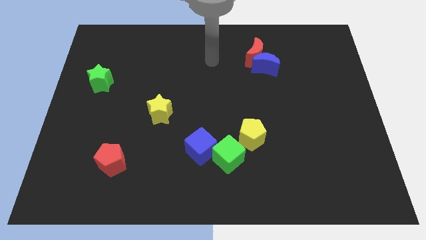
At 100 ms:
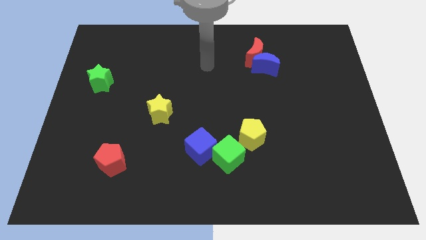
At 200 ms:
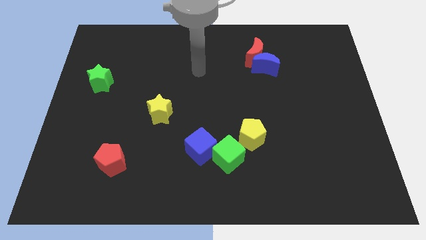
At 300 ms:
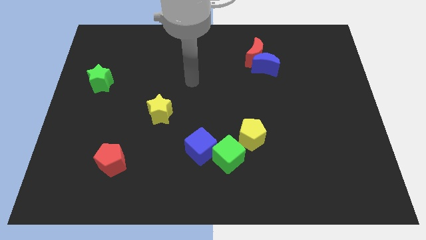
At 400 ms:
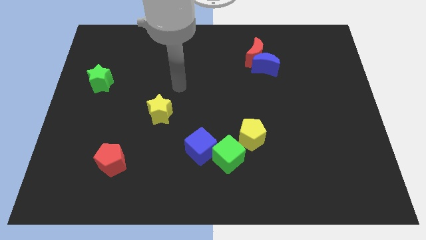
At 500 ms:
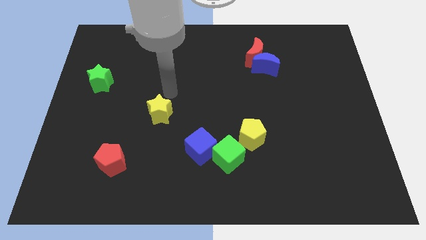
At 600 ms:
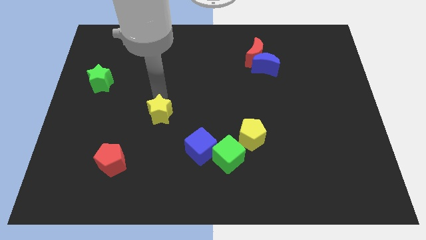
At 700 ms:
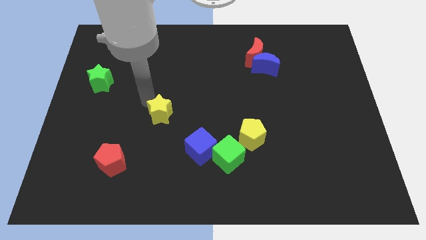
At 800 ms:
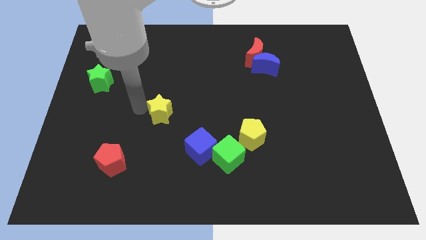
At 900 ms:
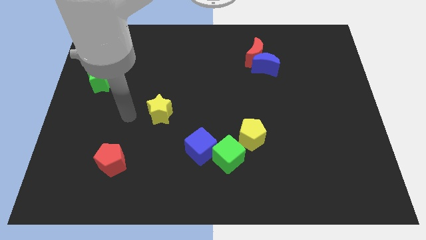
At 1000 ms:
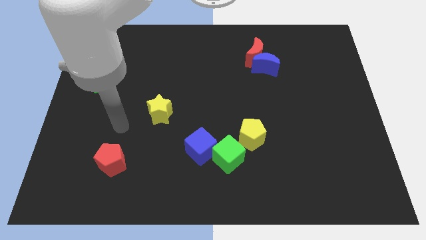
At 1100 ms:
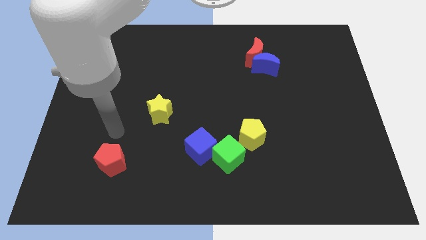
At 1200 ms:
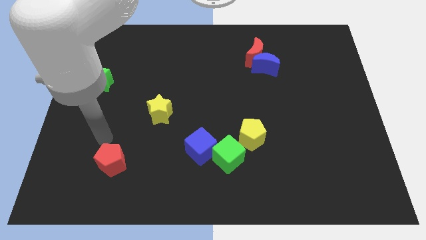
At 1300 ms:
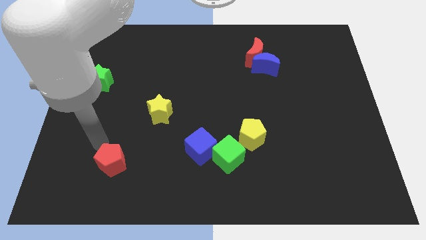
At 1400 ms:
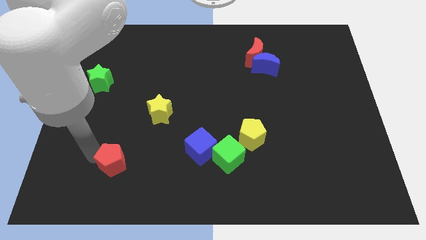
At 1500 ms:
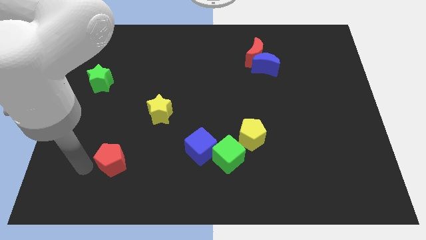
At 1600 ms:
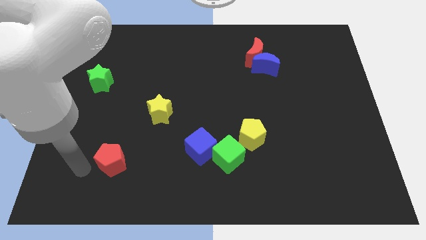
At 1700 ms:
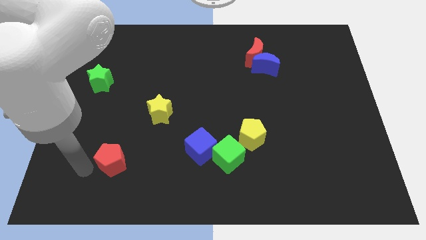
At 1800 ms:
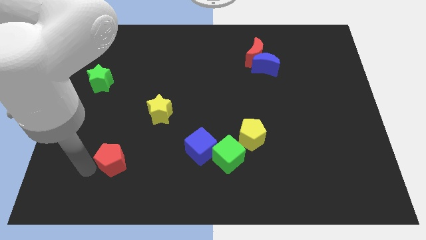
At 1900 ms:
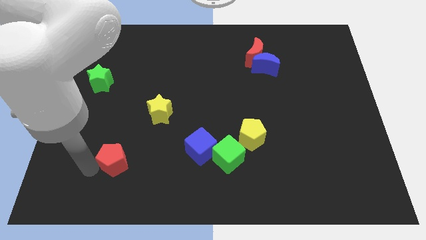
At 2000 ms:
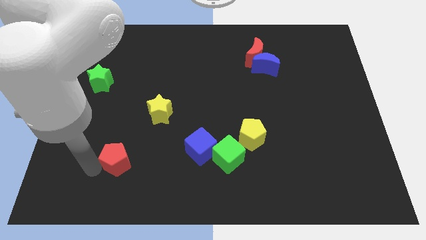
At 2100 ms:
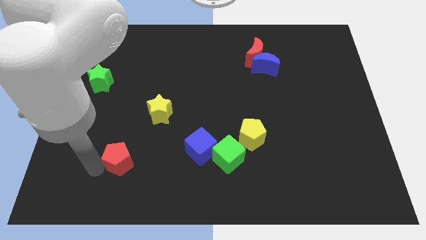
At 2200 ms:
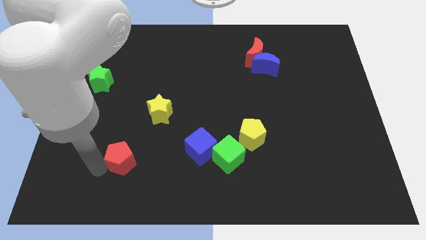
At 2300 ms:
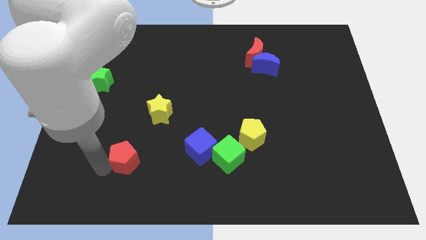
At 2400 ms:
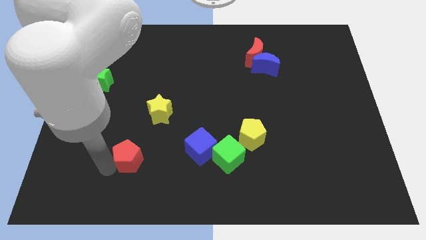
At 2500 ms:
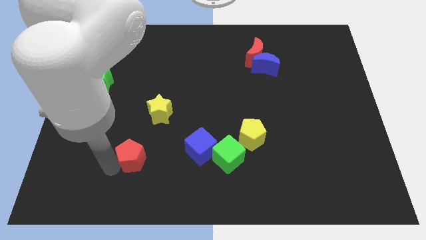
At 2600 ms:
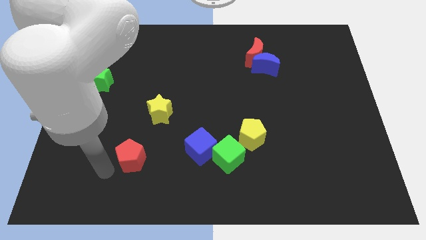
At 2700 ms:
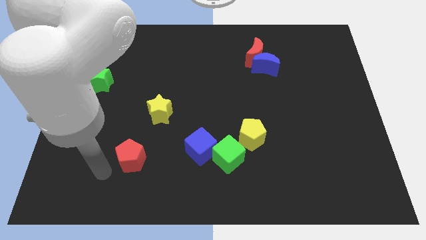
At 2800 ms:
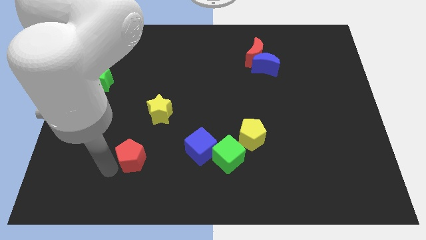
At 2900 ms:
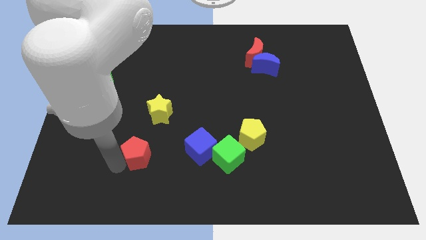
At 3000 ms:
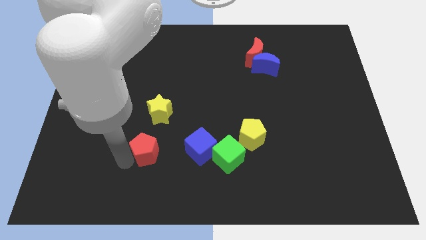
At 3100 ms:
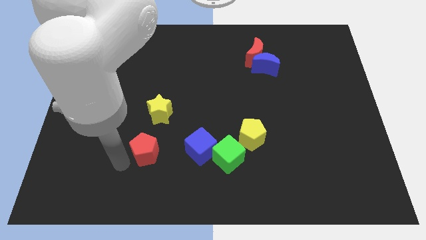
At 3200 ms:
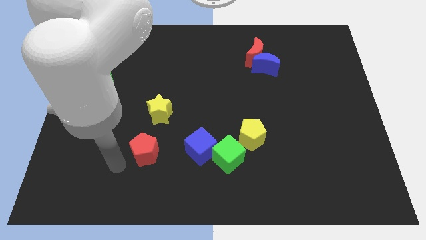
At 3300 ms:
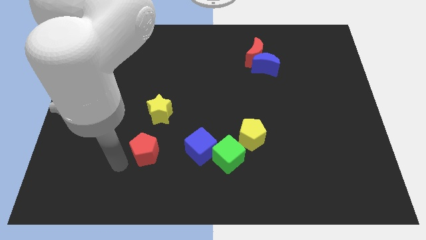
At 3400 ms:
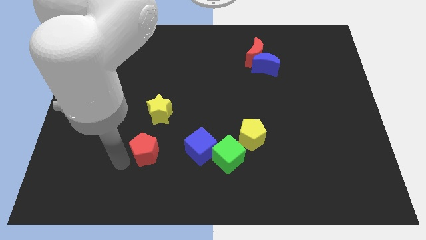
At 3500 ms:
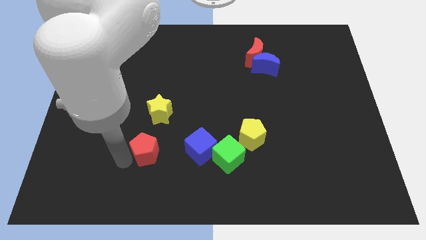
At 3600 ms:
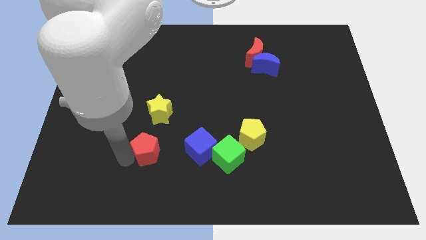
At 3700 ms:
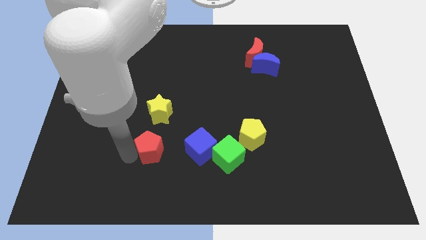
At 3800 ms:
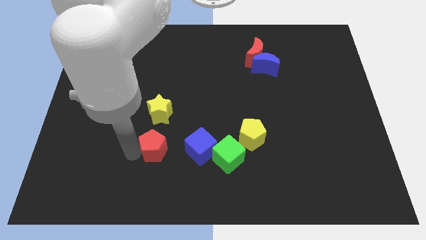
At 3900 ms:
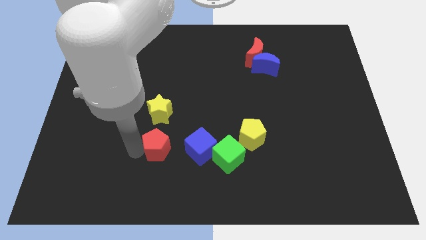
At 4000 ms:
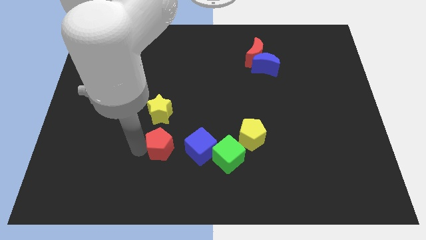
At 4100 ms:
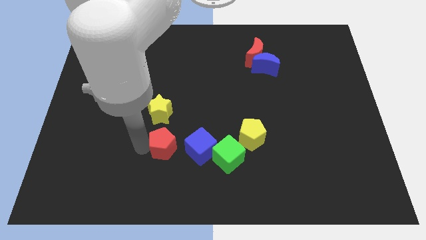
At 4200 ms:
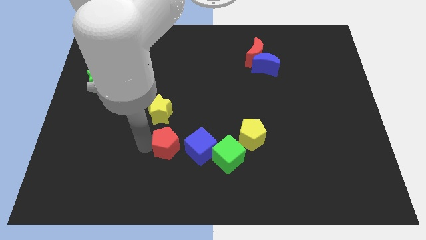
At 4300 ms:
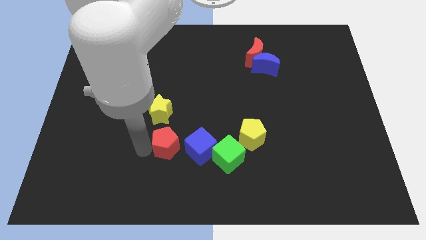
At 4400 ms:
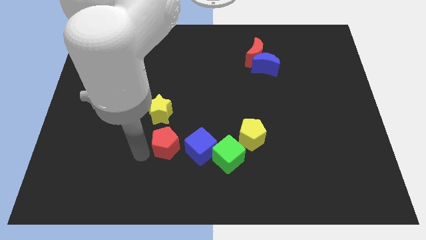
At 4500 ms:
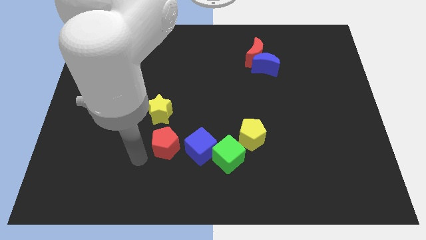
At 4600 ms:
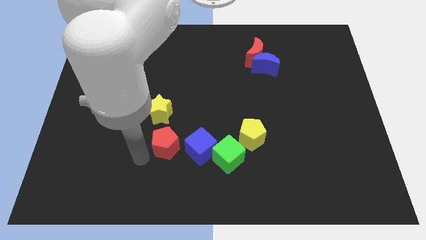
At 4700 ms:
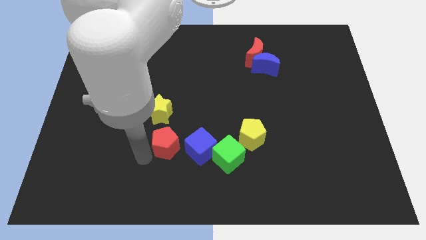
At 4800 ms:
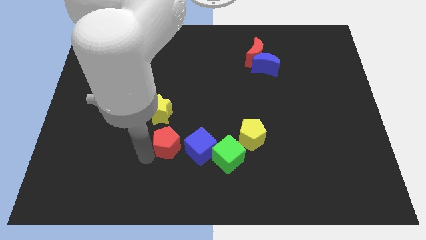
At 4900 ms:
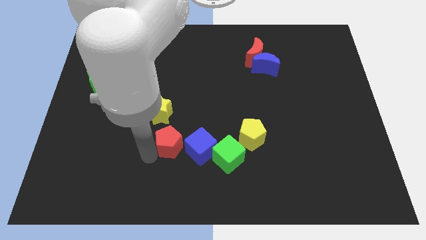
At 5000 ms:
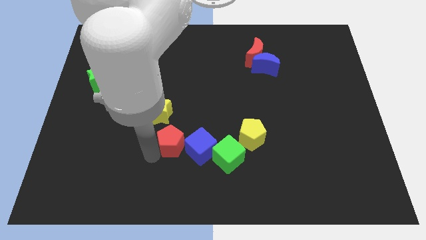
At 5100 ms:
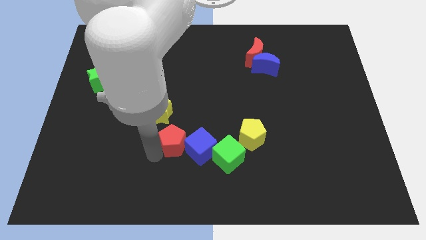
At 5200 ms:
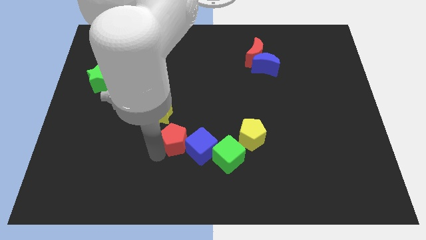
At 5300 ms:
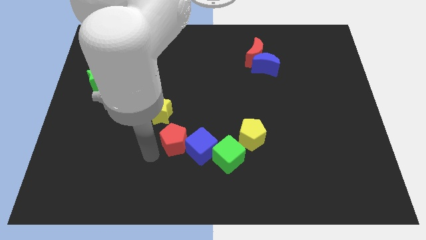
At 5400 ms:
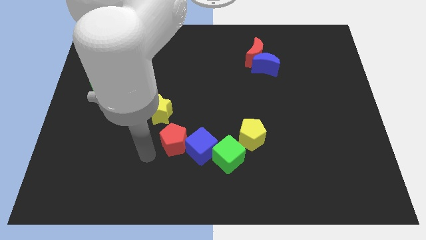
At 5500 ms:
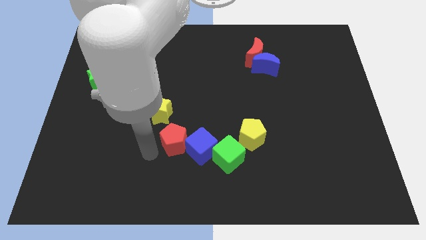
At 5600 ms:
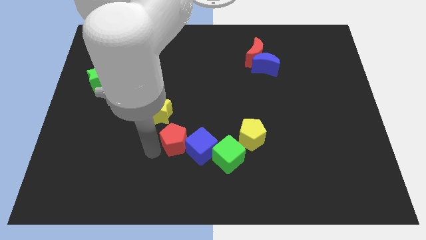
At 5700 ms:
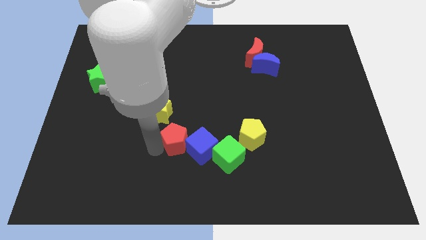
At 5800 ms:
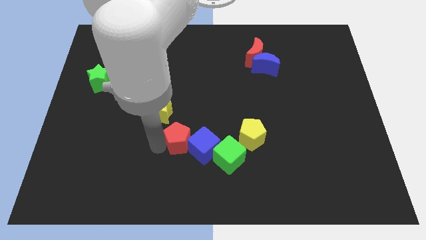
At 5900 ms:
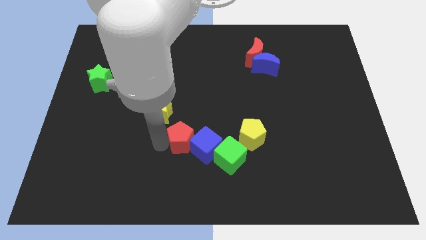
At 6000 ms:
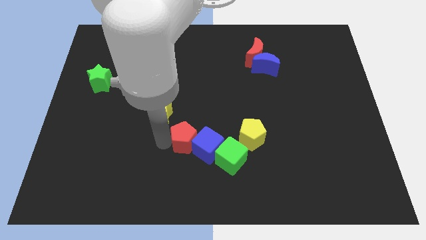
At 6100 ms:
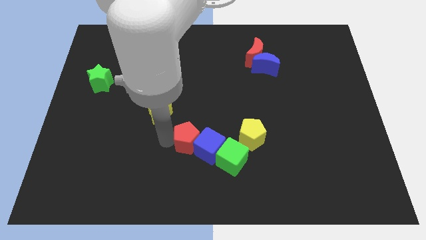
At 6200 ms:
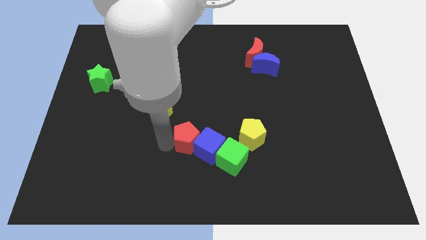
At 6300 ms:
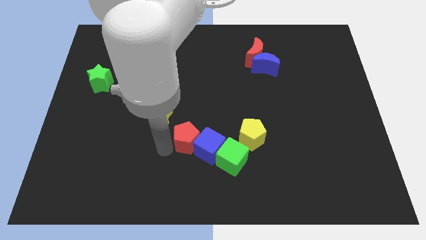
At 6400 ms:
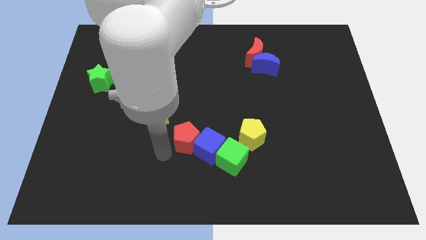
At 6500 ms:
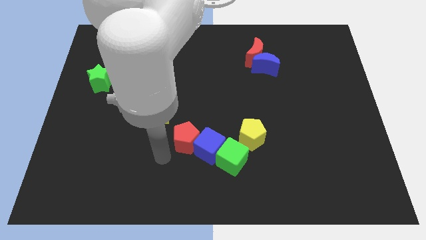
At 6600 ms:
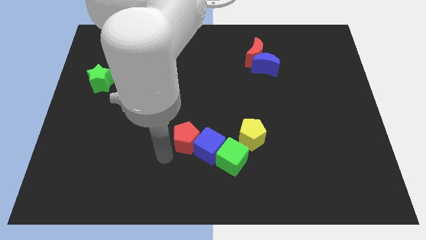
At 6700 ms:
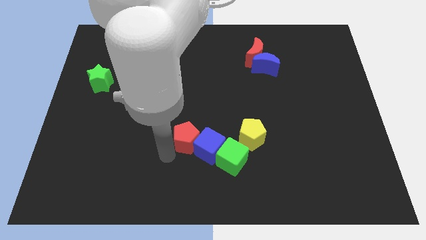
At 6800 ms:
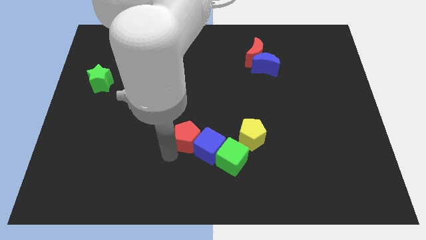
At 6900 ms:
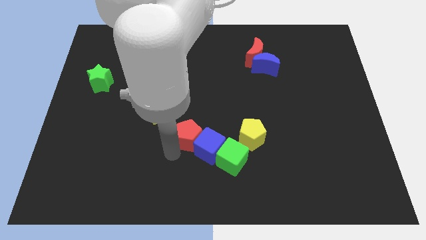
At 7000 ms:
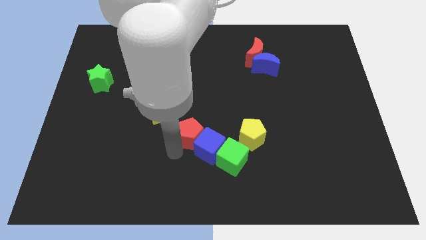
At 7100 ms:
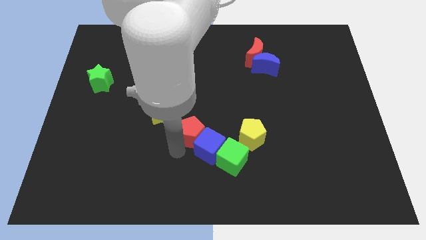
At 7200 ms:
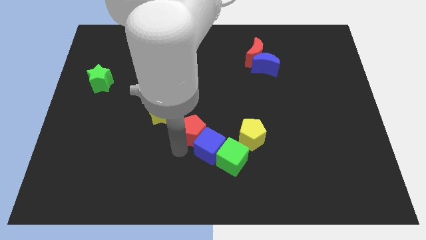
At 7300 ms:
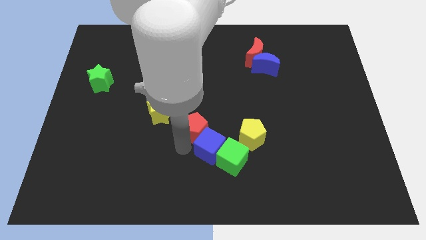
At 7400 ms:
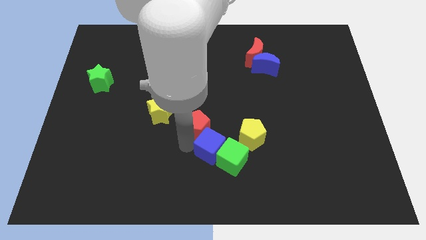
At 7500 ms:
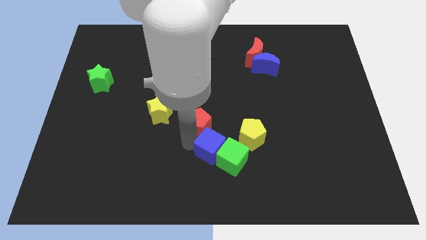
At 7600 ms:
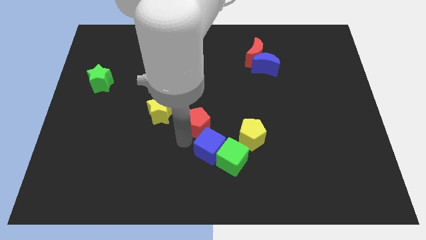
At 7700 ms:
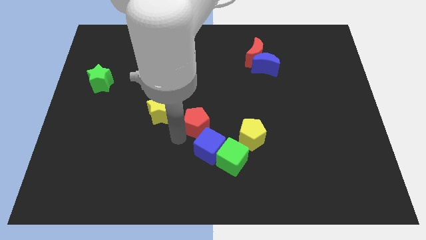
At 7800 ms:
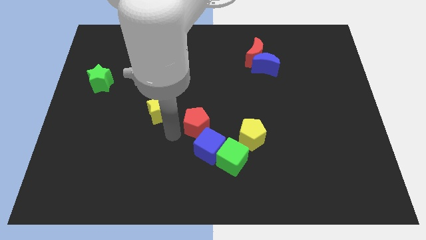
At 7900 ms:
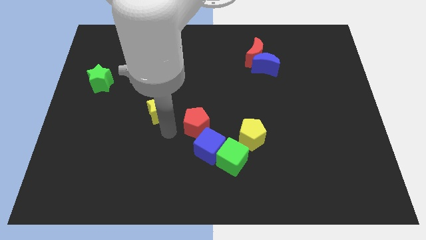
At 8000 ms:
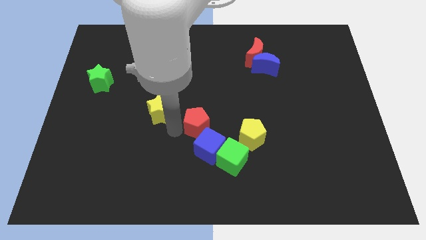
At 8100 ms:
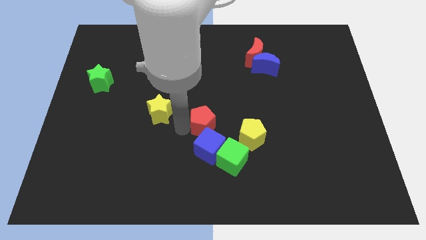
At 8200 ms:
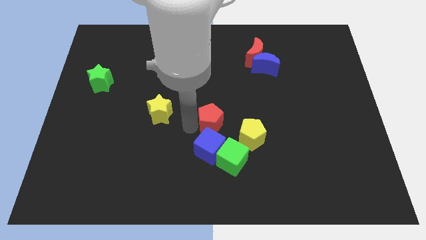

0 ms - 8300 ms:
slide the red pentagon to the top left side of the yellow pentagon
